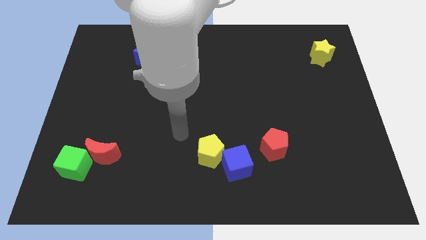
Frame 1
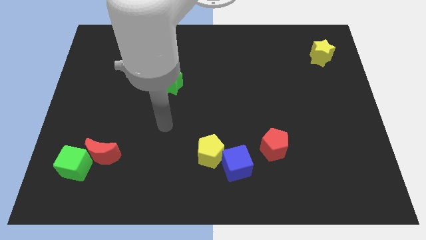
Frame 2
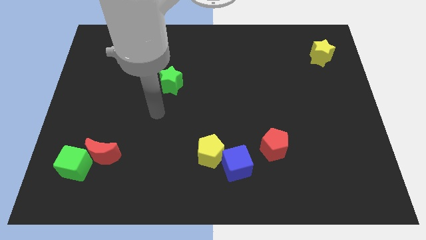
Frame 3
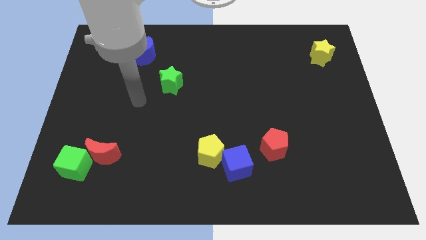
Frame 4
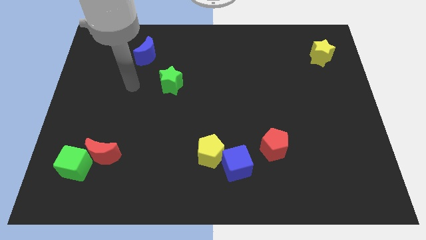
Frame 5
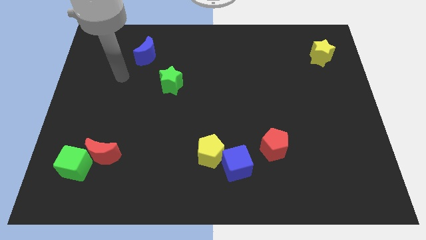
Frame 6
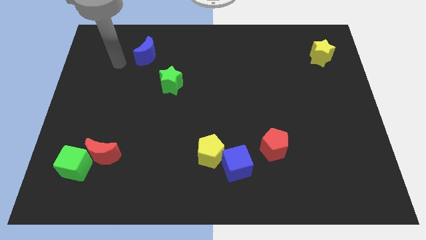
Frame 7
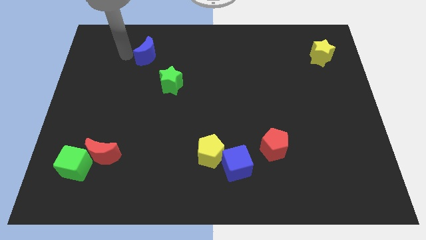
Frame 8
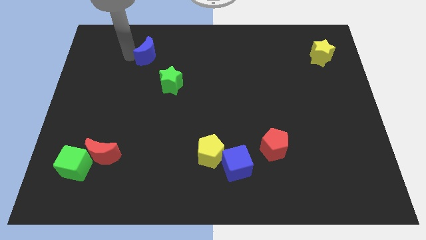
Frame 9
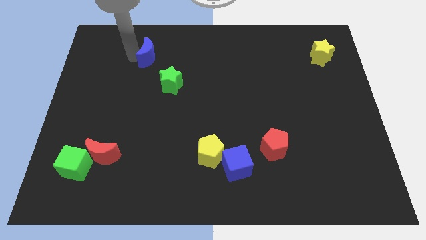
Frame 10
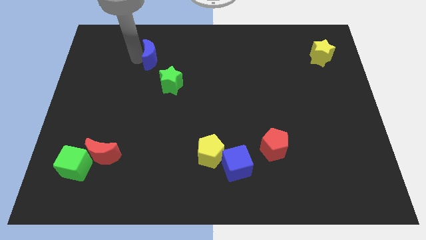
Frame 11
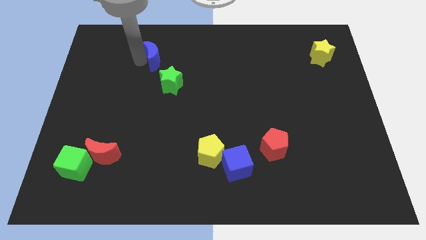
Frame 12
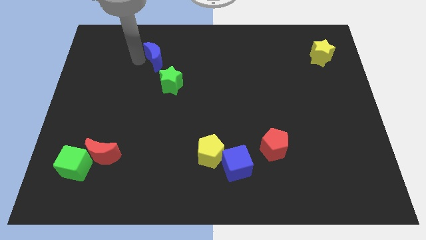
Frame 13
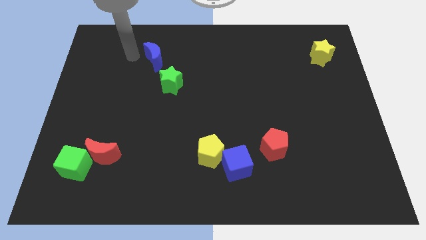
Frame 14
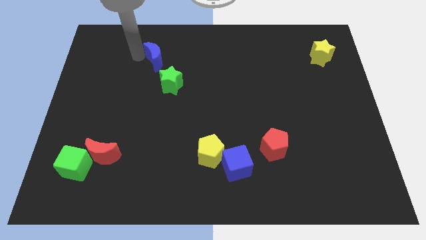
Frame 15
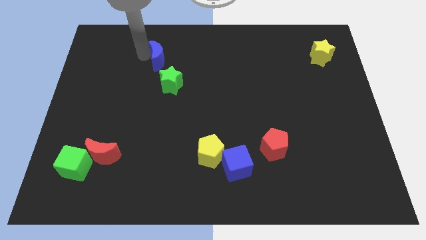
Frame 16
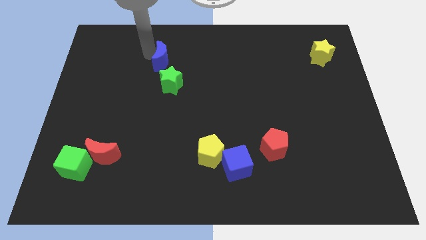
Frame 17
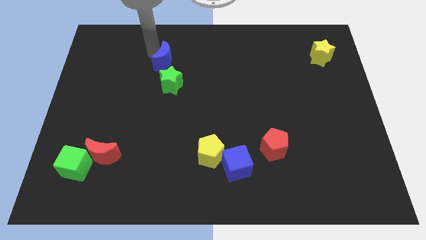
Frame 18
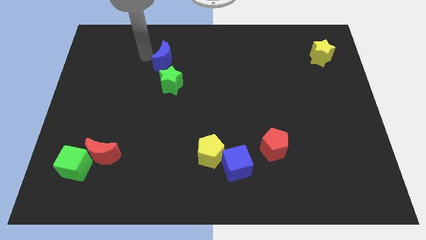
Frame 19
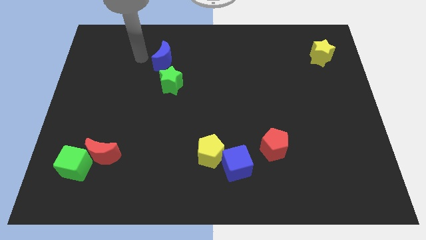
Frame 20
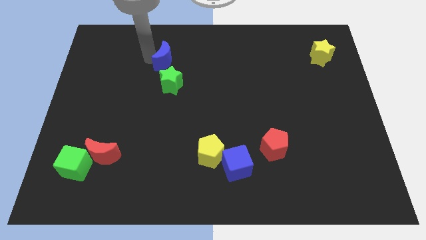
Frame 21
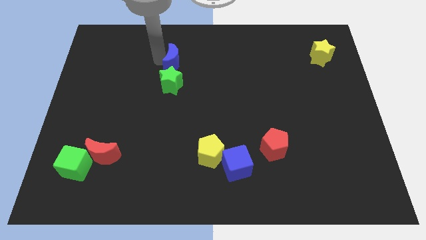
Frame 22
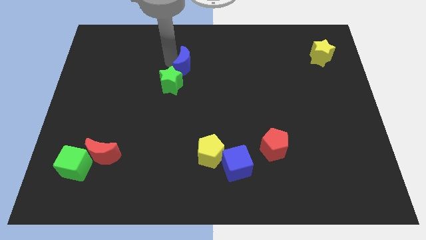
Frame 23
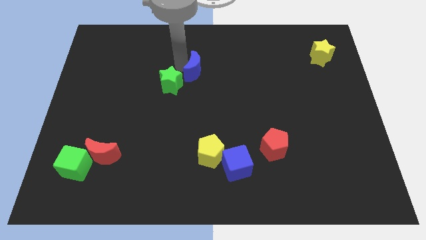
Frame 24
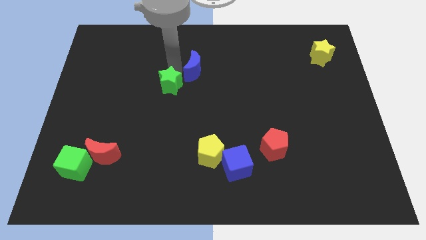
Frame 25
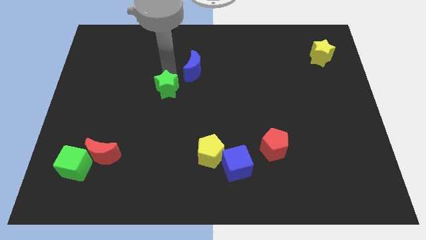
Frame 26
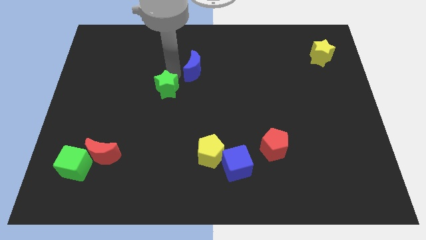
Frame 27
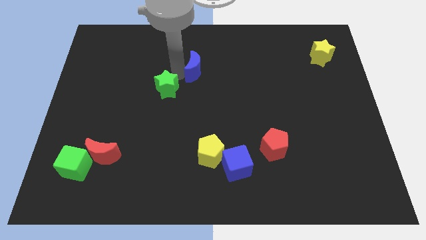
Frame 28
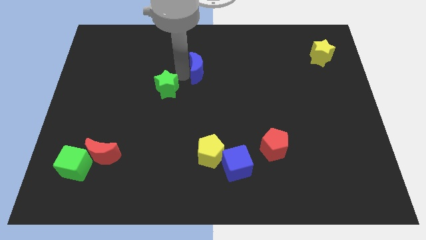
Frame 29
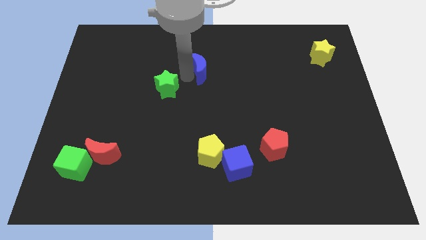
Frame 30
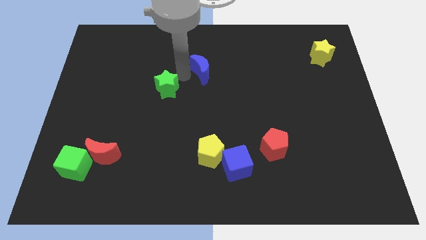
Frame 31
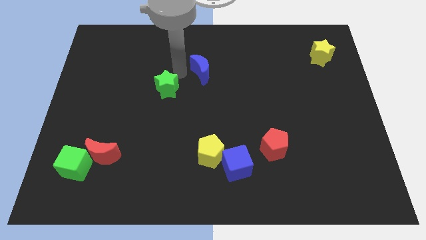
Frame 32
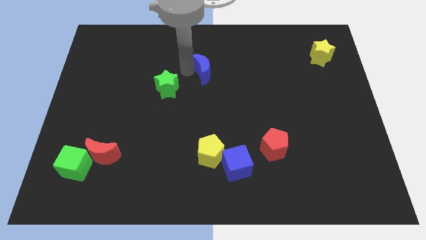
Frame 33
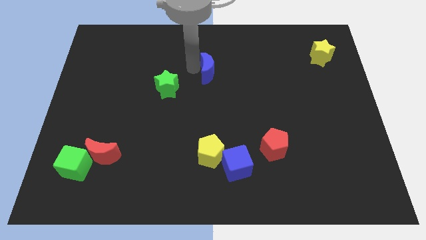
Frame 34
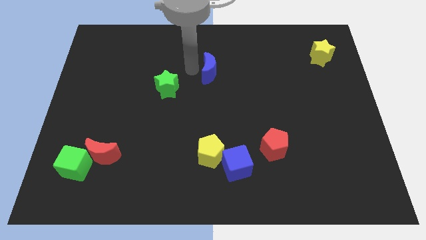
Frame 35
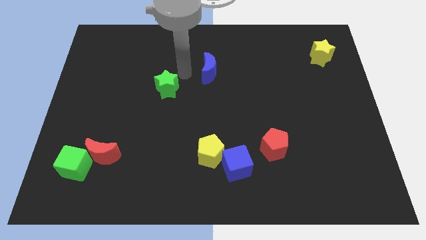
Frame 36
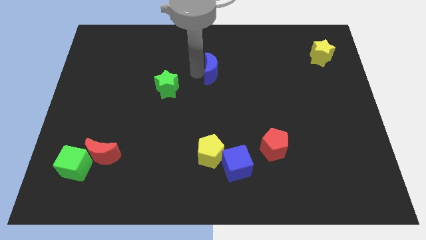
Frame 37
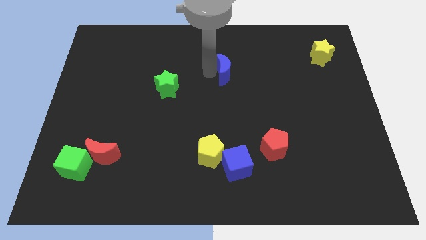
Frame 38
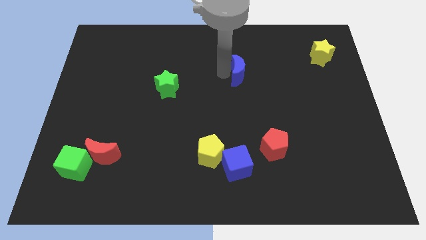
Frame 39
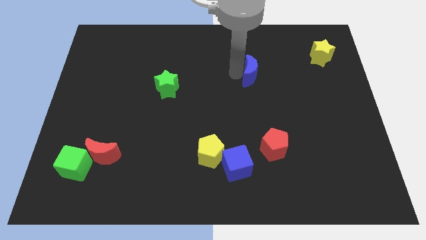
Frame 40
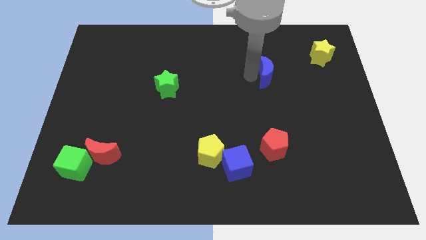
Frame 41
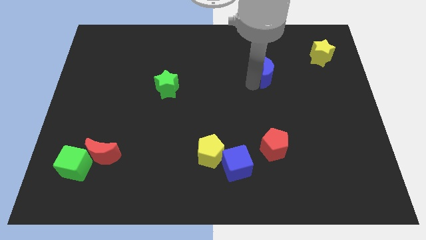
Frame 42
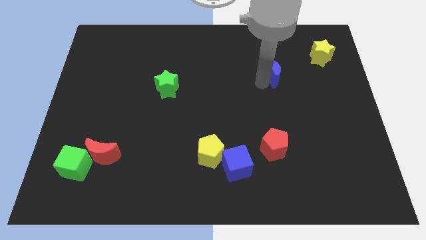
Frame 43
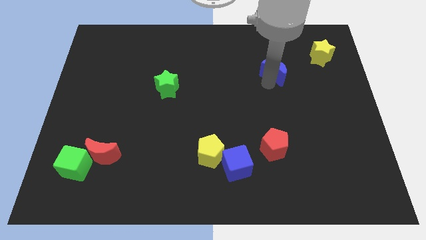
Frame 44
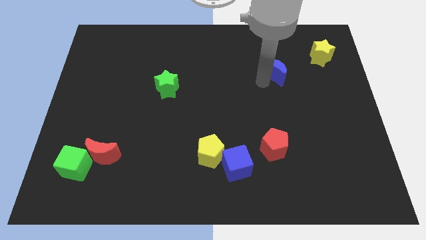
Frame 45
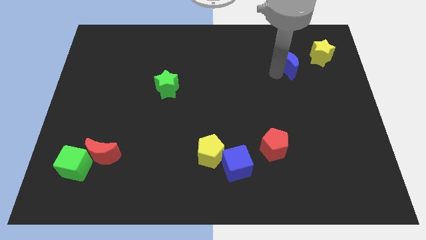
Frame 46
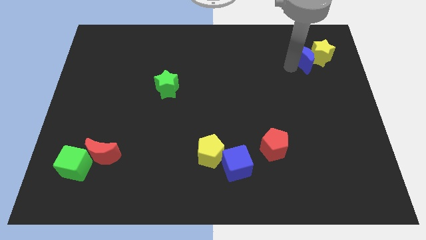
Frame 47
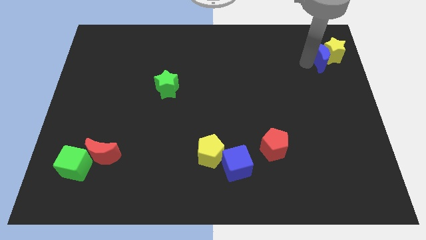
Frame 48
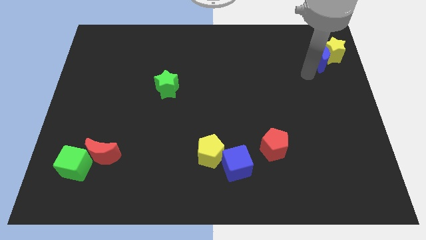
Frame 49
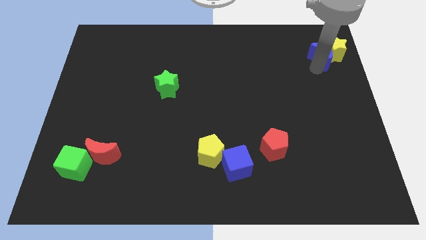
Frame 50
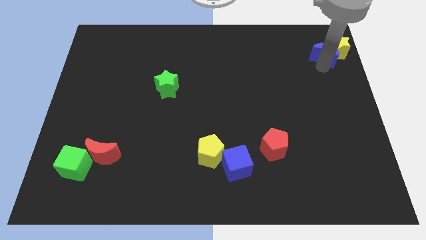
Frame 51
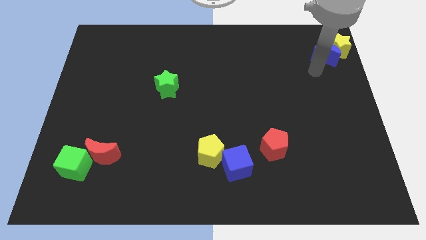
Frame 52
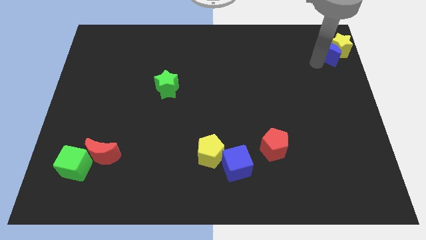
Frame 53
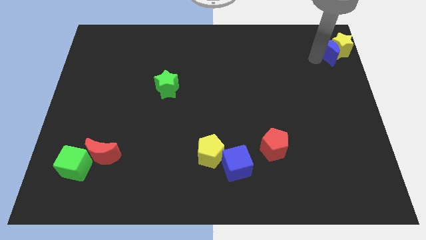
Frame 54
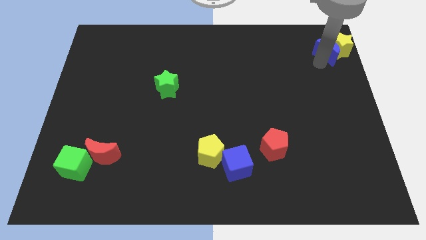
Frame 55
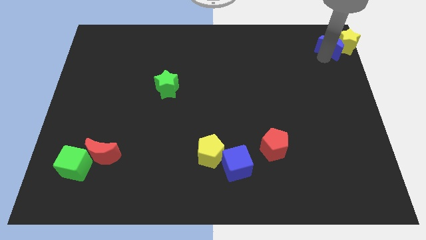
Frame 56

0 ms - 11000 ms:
slide the blue moon to the top right of the board

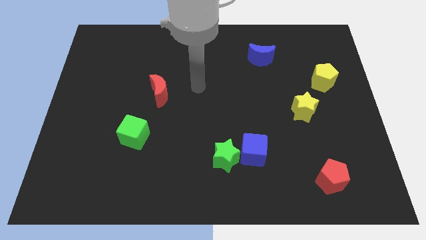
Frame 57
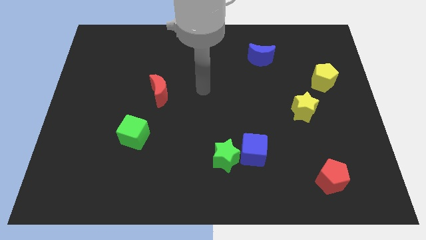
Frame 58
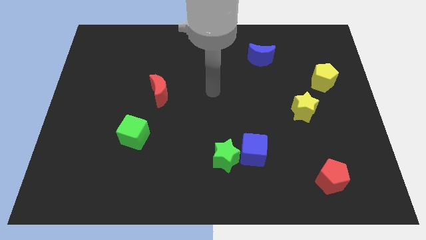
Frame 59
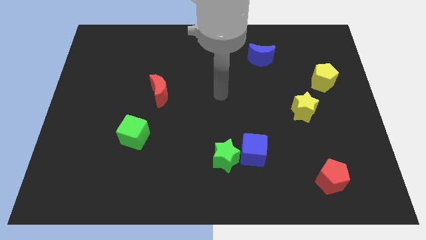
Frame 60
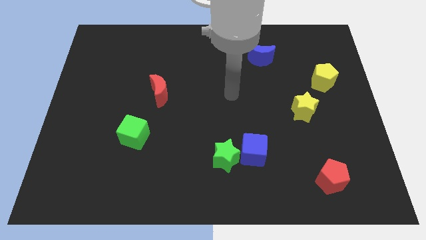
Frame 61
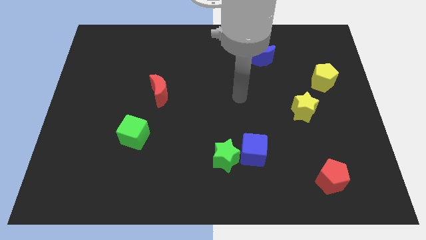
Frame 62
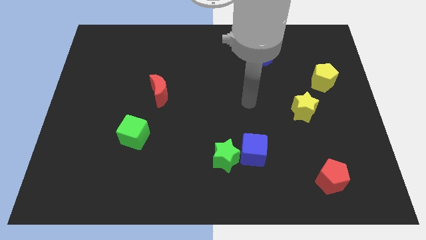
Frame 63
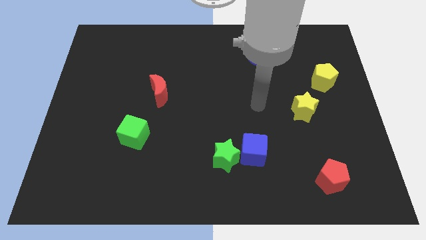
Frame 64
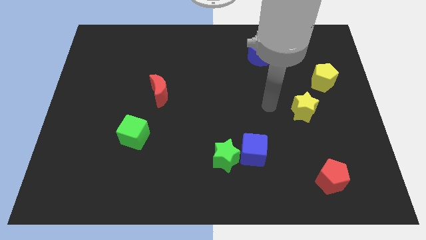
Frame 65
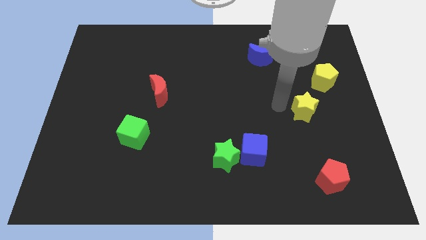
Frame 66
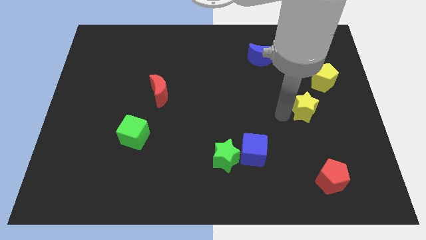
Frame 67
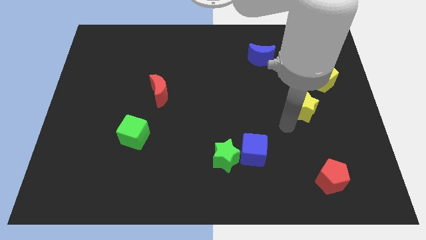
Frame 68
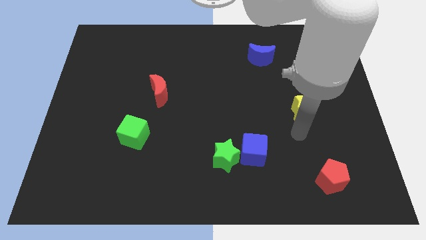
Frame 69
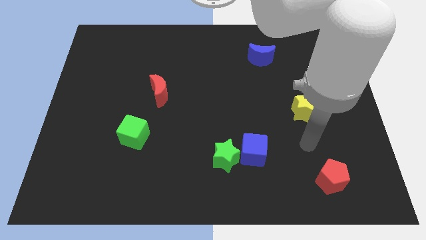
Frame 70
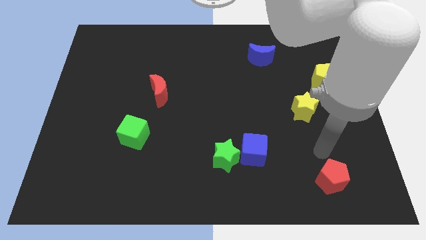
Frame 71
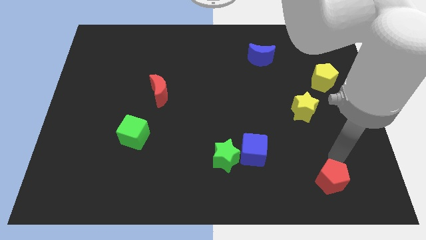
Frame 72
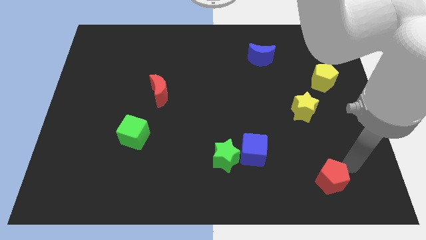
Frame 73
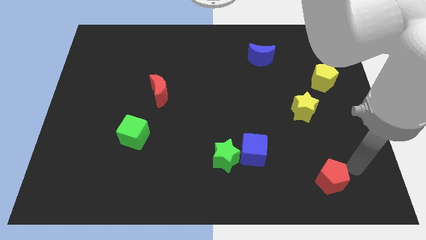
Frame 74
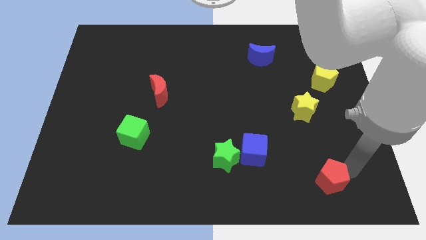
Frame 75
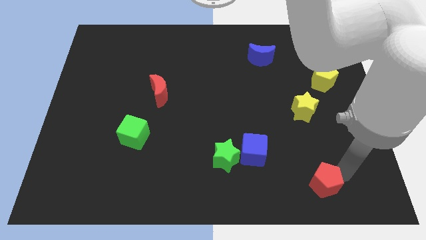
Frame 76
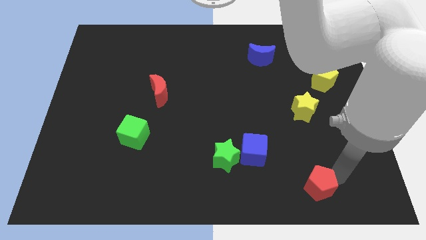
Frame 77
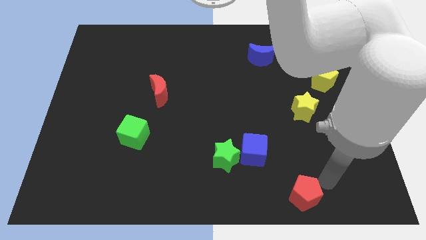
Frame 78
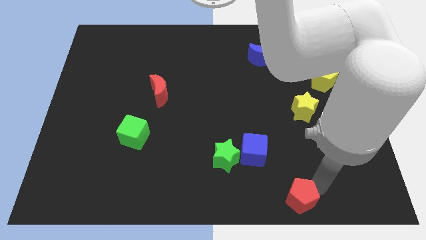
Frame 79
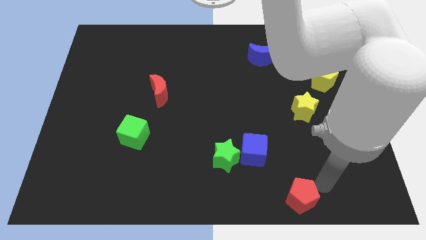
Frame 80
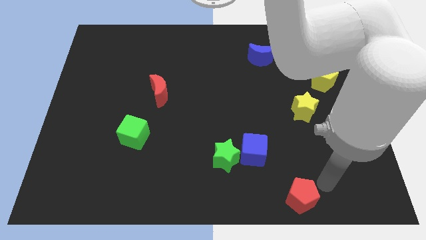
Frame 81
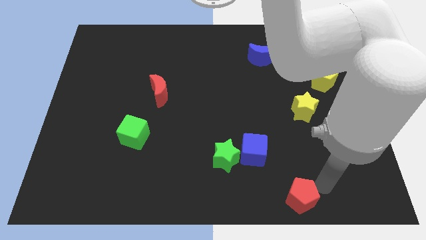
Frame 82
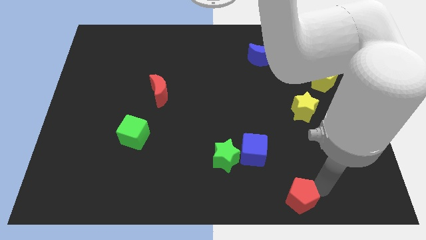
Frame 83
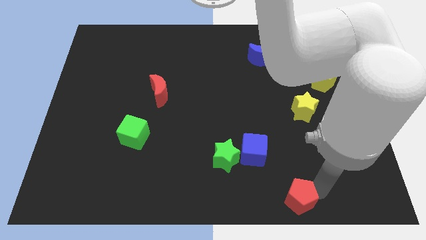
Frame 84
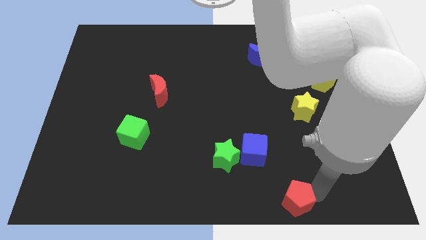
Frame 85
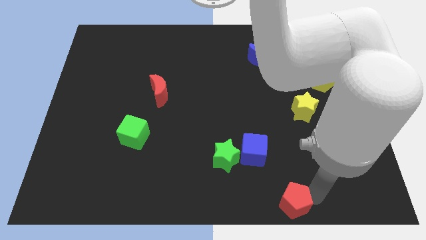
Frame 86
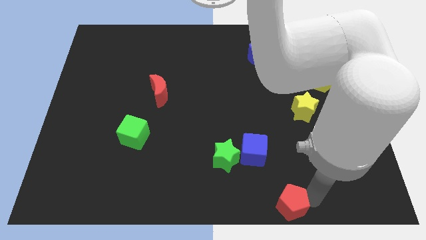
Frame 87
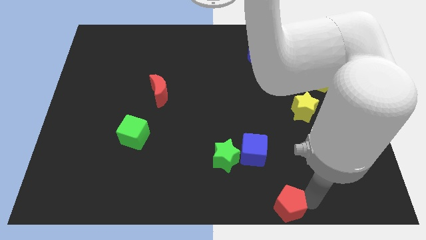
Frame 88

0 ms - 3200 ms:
push the red pentagon to the bottom side
